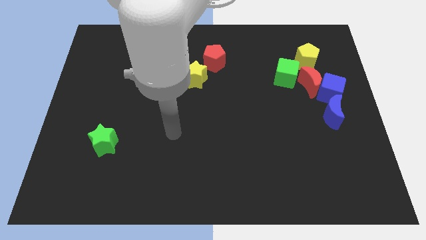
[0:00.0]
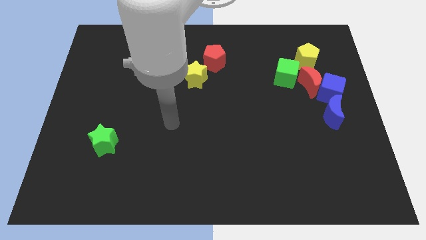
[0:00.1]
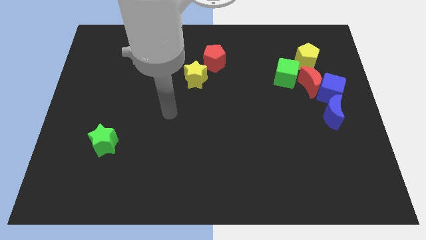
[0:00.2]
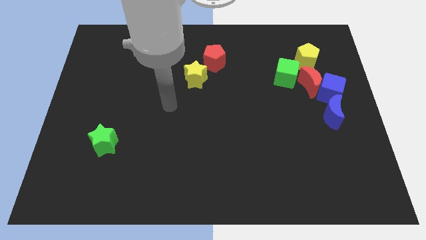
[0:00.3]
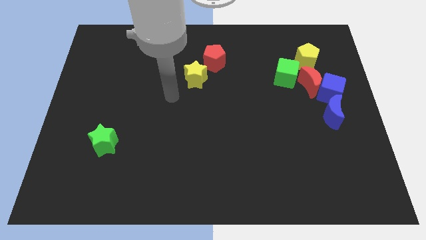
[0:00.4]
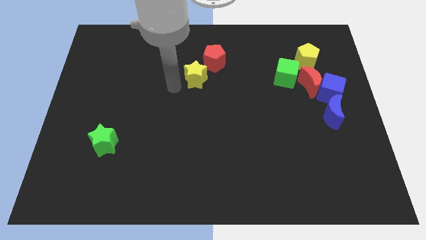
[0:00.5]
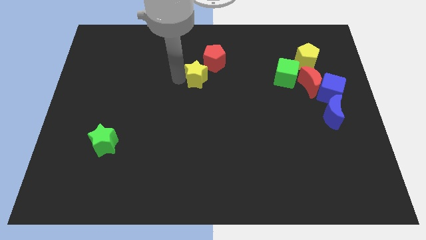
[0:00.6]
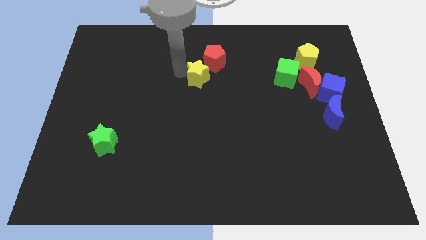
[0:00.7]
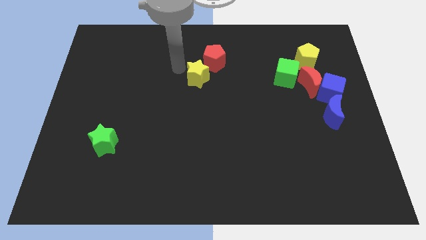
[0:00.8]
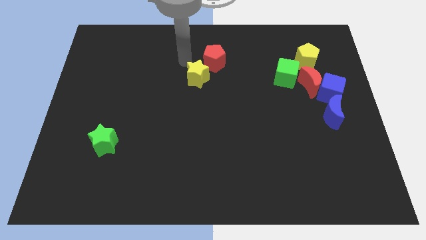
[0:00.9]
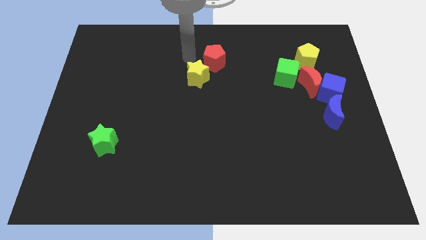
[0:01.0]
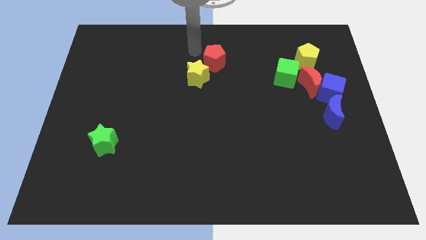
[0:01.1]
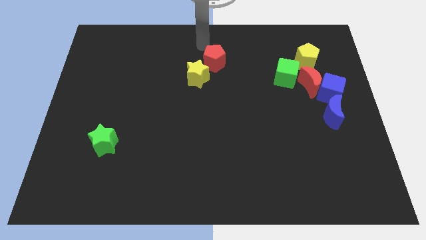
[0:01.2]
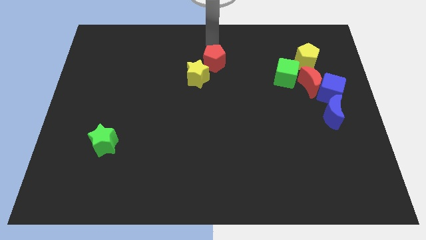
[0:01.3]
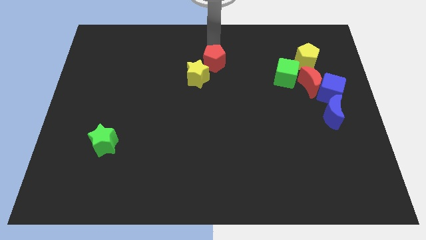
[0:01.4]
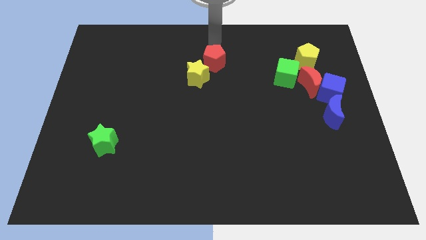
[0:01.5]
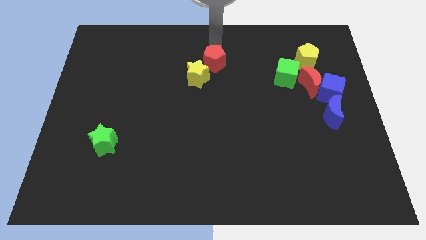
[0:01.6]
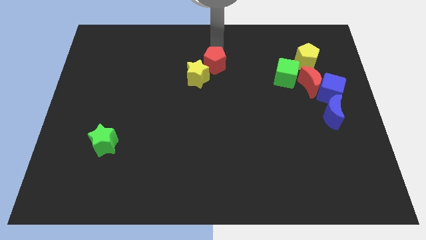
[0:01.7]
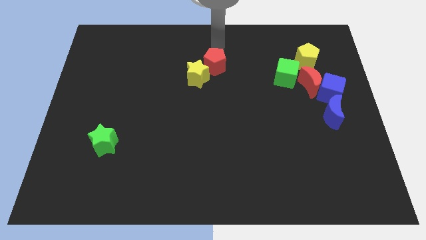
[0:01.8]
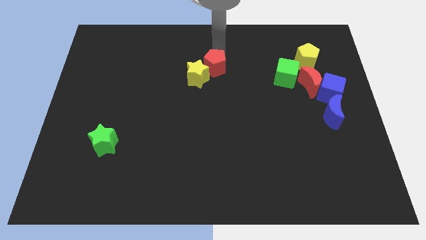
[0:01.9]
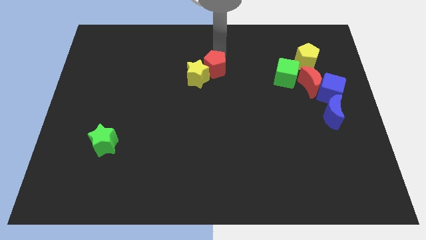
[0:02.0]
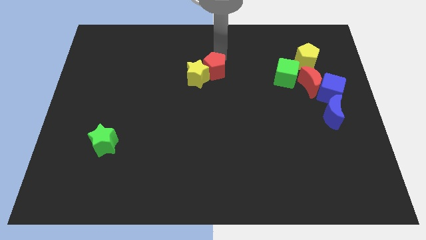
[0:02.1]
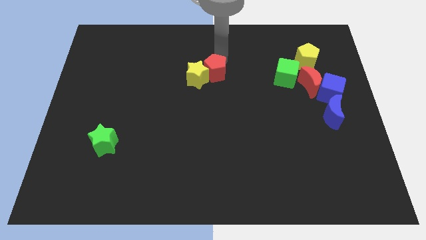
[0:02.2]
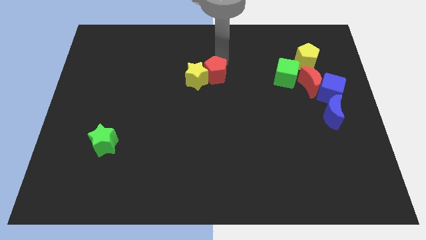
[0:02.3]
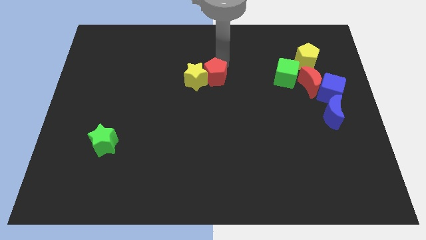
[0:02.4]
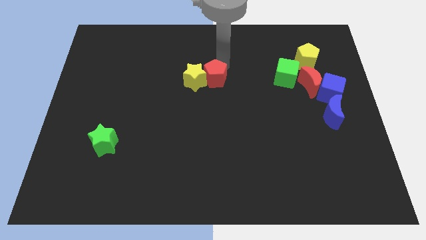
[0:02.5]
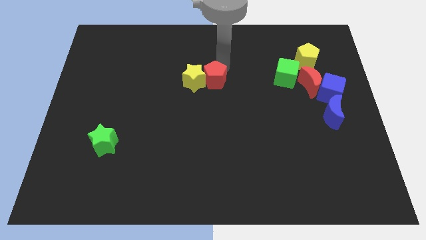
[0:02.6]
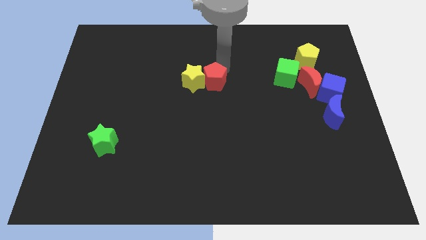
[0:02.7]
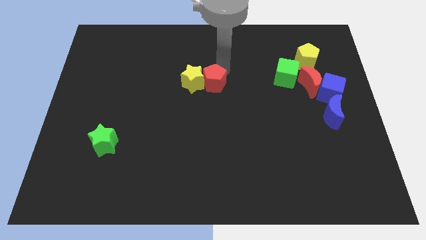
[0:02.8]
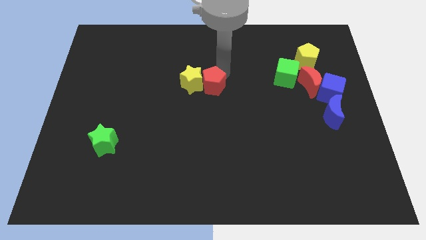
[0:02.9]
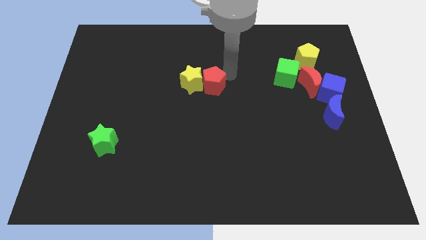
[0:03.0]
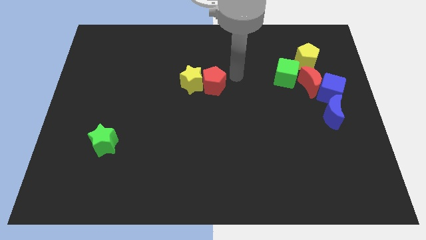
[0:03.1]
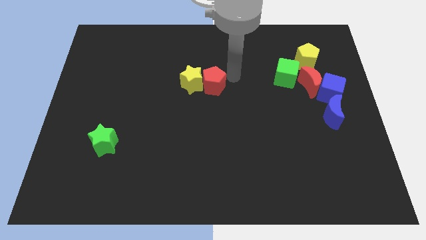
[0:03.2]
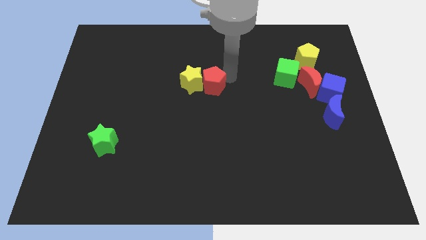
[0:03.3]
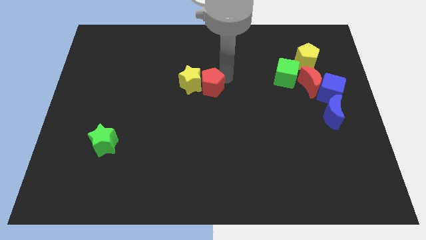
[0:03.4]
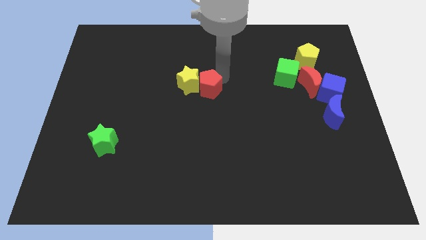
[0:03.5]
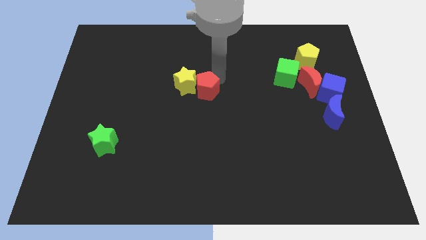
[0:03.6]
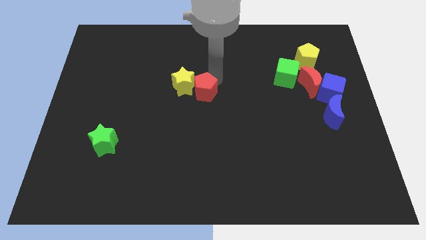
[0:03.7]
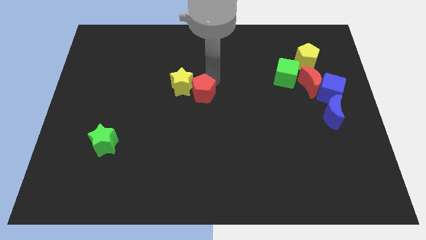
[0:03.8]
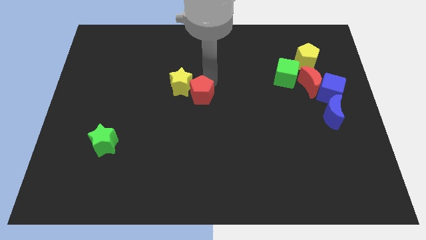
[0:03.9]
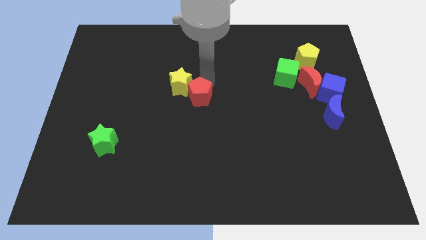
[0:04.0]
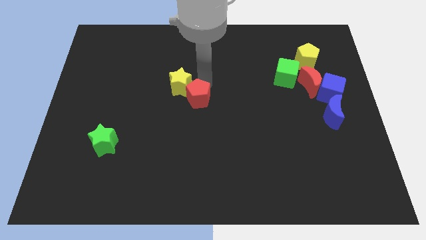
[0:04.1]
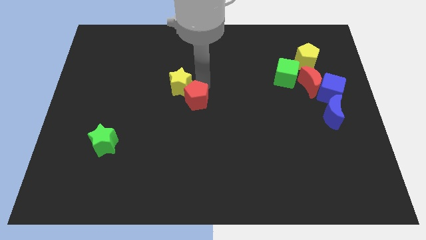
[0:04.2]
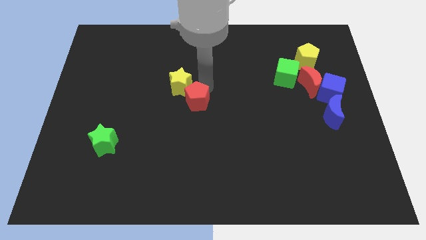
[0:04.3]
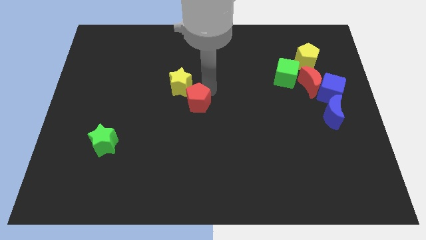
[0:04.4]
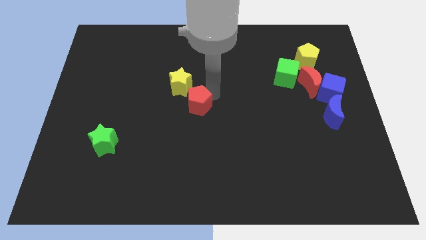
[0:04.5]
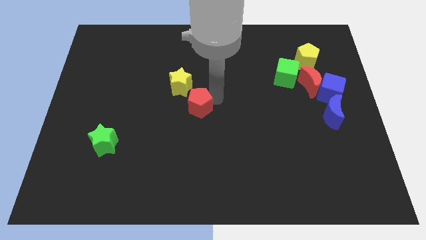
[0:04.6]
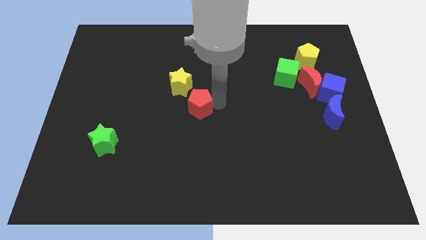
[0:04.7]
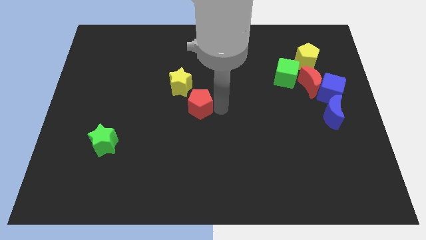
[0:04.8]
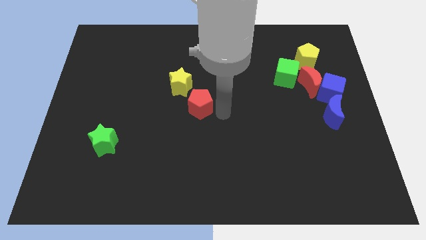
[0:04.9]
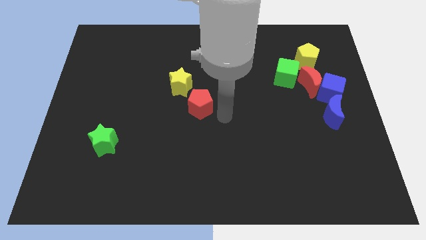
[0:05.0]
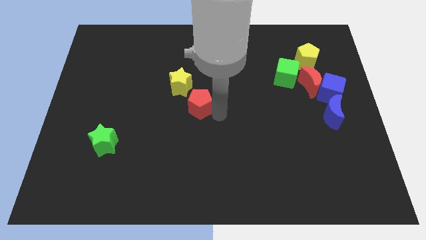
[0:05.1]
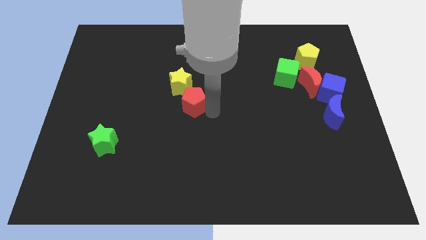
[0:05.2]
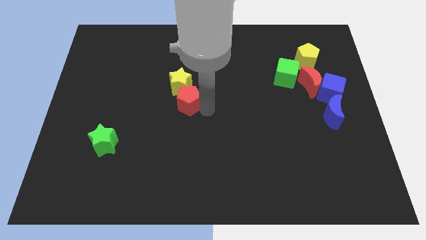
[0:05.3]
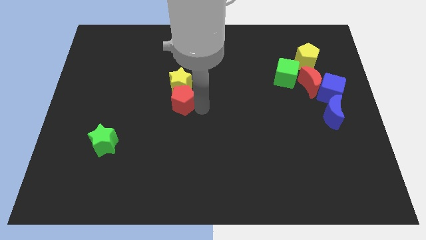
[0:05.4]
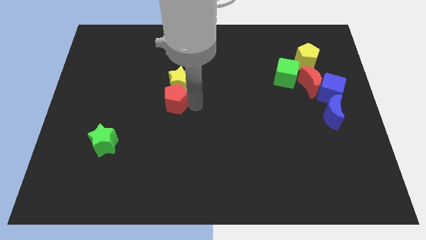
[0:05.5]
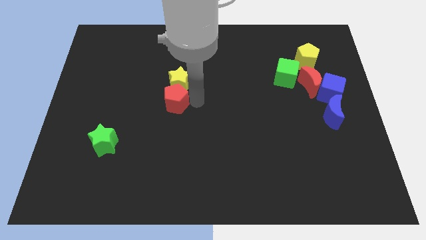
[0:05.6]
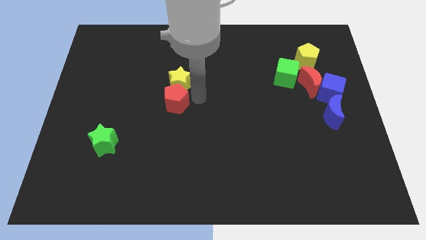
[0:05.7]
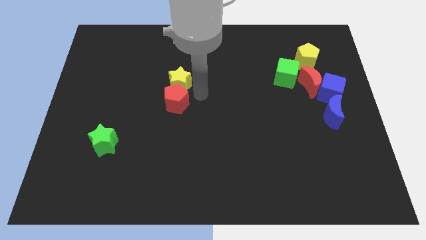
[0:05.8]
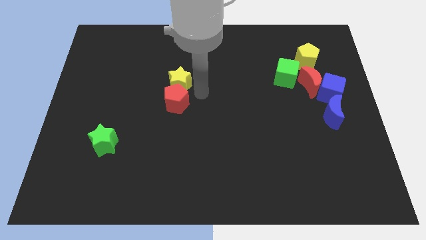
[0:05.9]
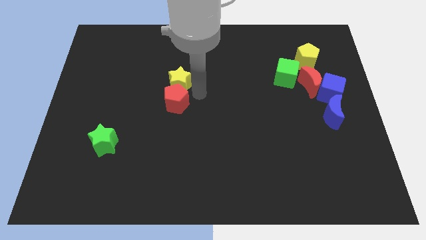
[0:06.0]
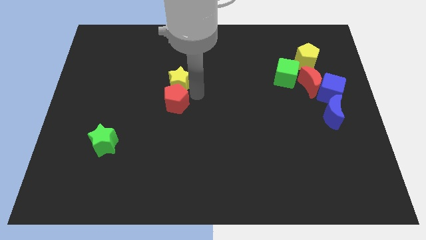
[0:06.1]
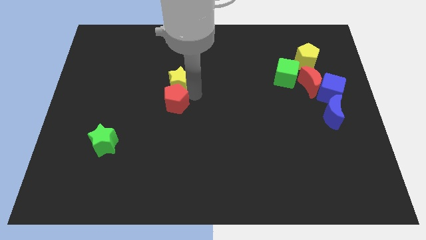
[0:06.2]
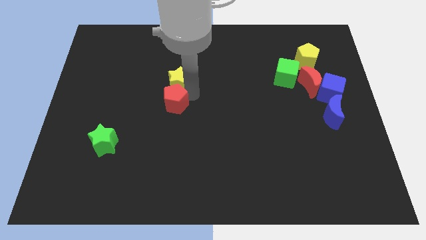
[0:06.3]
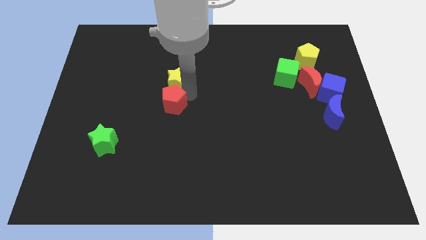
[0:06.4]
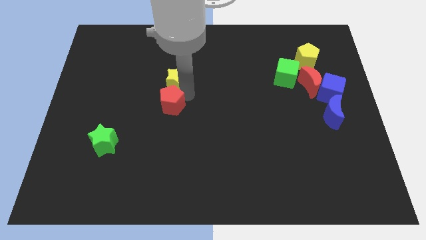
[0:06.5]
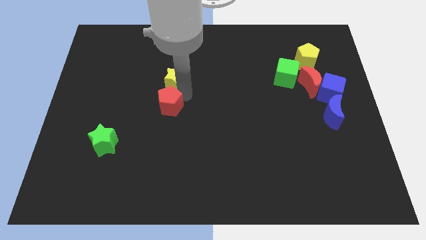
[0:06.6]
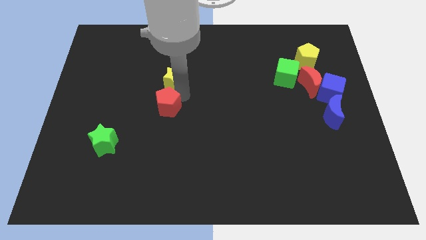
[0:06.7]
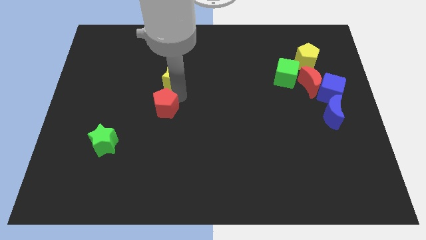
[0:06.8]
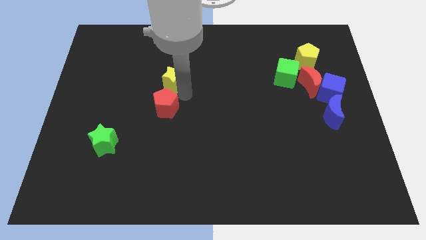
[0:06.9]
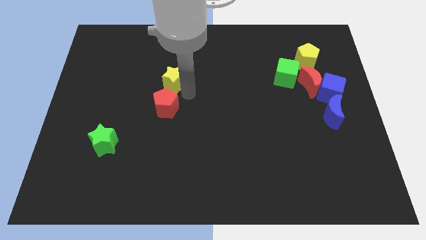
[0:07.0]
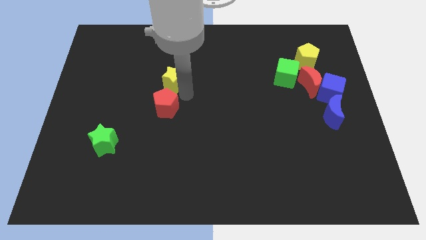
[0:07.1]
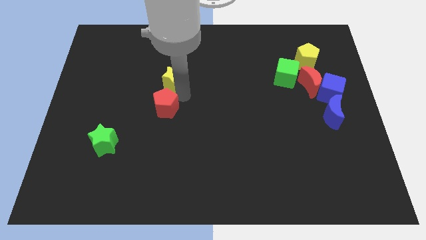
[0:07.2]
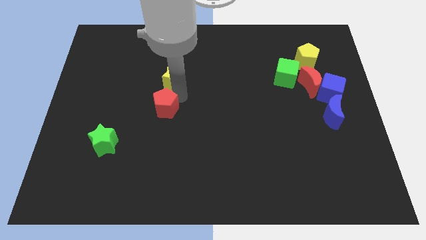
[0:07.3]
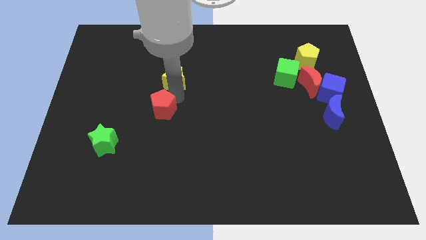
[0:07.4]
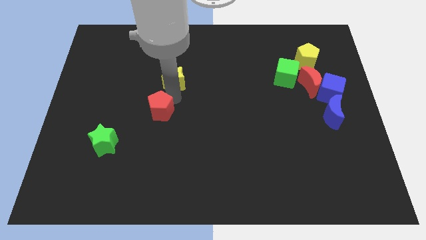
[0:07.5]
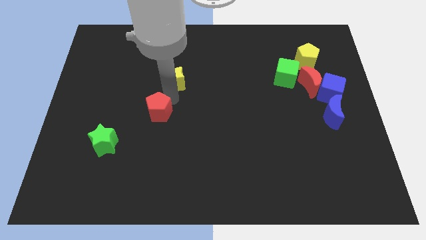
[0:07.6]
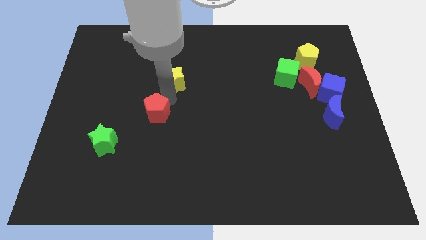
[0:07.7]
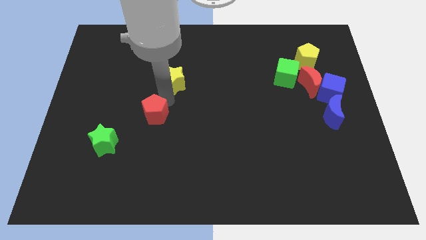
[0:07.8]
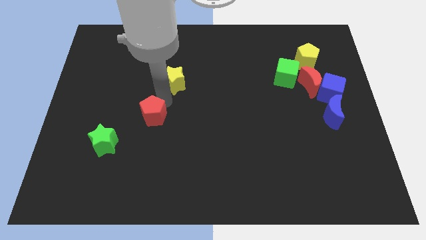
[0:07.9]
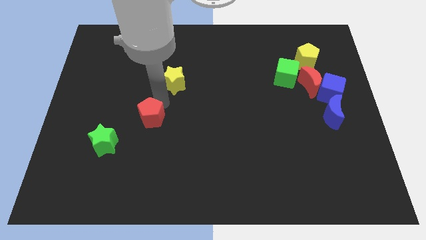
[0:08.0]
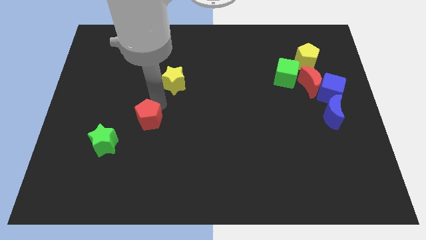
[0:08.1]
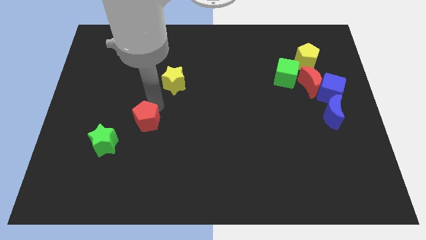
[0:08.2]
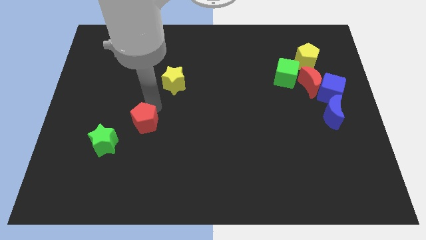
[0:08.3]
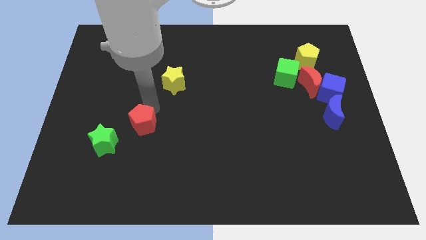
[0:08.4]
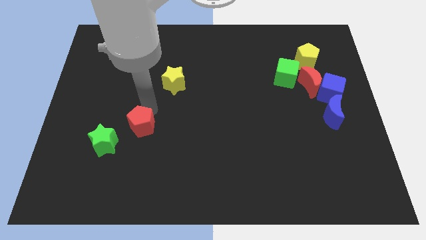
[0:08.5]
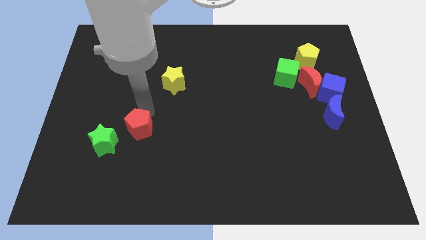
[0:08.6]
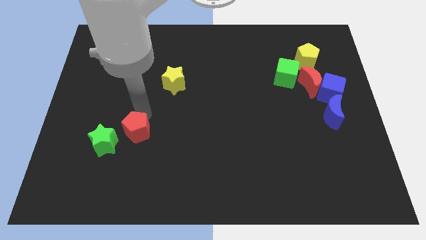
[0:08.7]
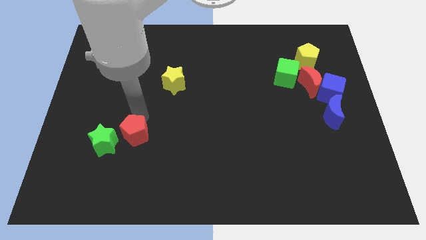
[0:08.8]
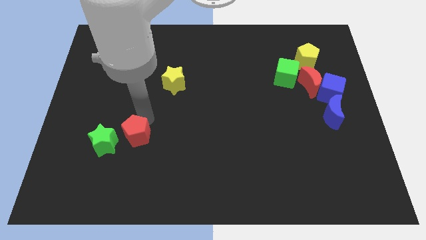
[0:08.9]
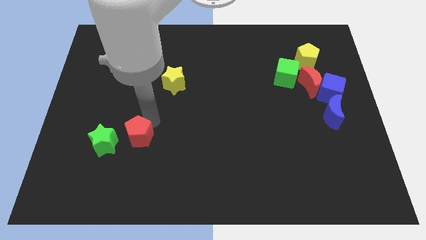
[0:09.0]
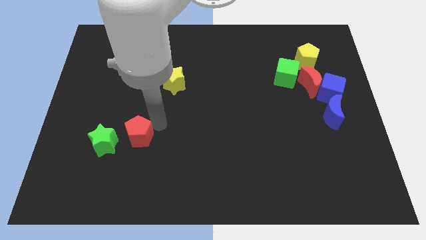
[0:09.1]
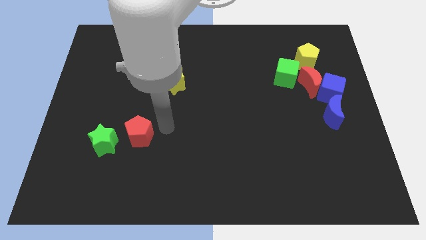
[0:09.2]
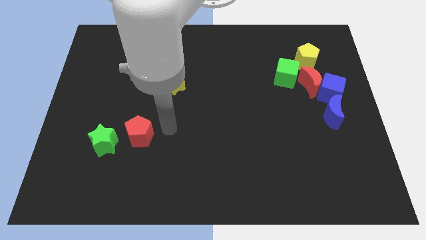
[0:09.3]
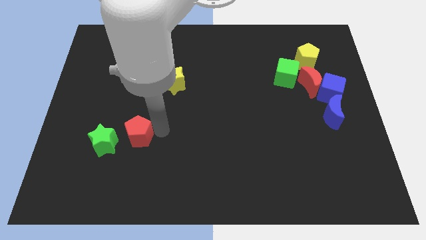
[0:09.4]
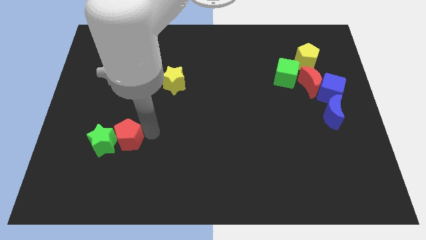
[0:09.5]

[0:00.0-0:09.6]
put the red pentagon next to the green star
